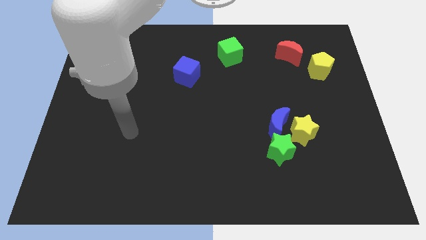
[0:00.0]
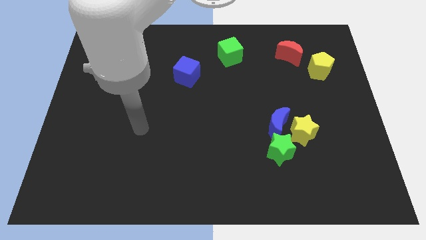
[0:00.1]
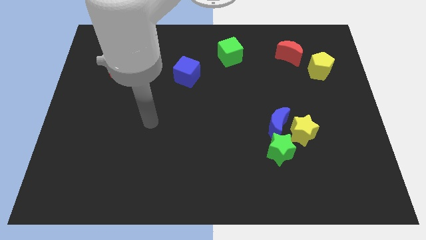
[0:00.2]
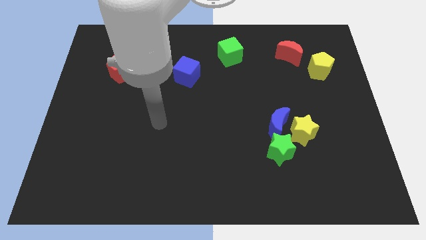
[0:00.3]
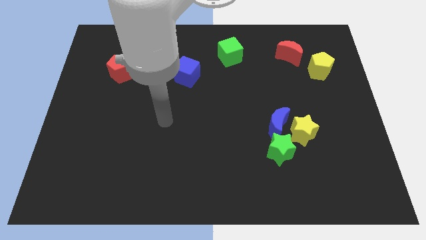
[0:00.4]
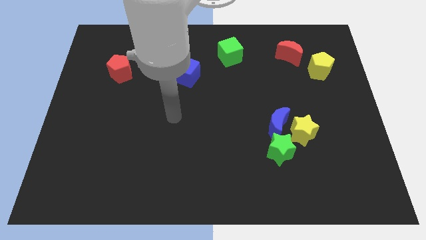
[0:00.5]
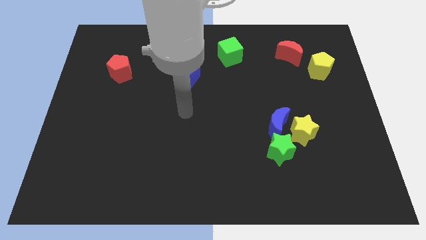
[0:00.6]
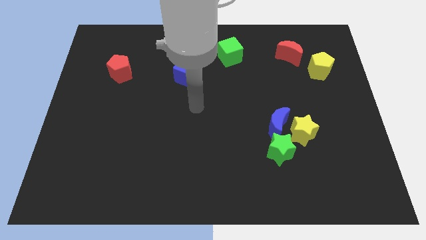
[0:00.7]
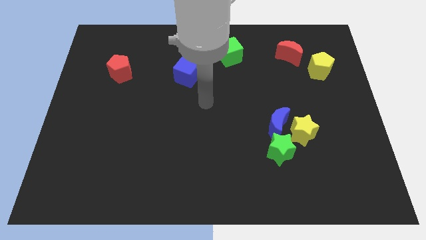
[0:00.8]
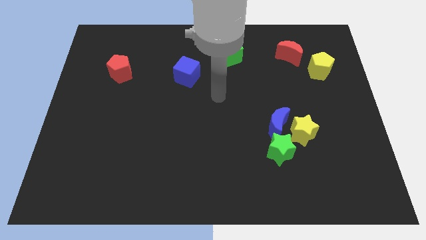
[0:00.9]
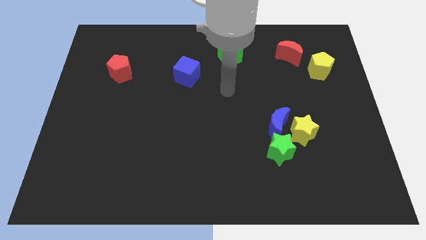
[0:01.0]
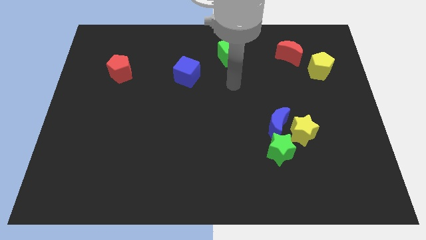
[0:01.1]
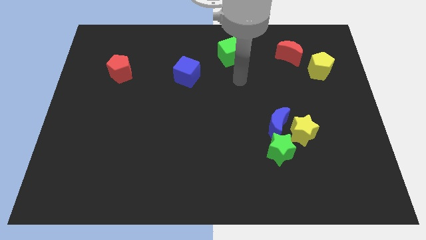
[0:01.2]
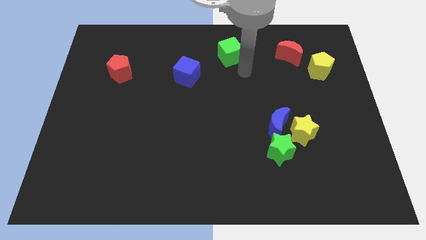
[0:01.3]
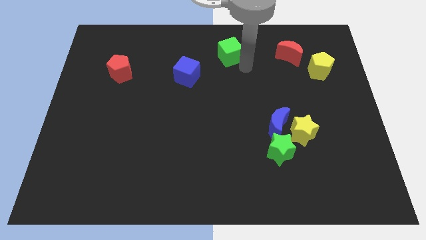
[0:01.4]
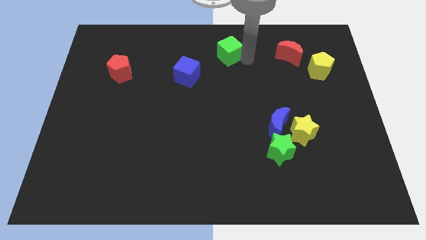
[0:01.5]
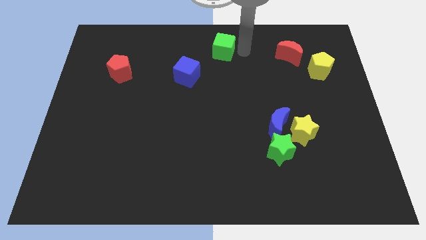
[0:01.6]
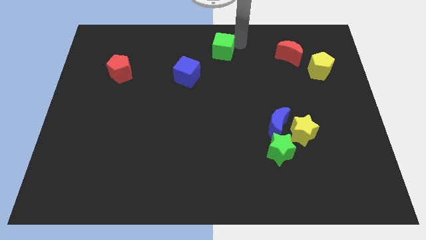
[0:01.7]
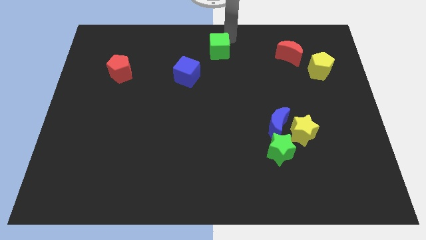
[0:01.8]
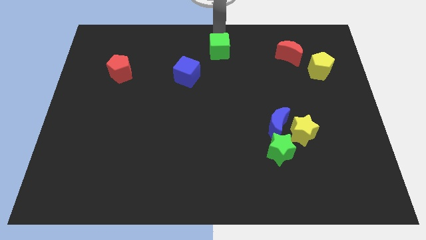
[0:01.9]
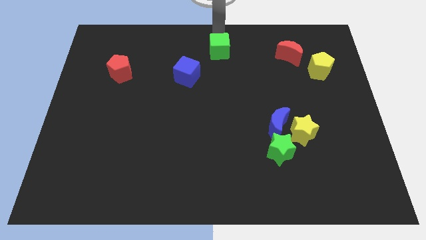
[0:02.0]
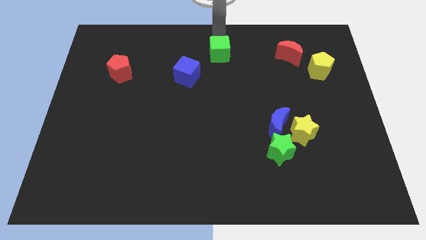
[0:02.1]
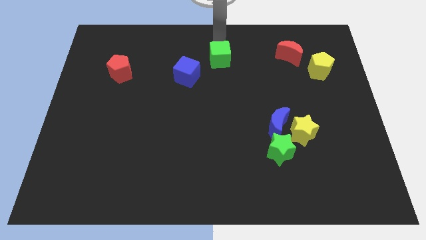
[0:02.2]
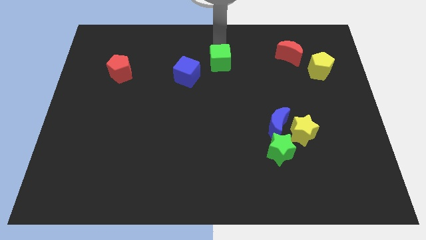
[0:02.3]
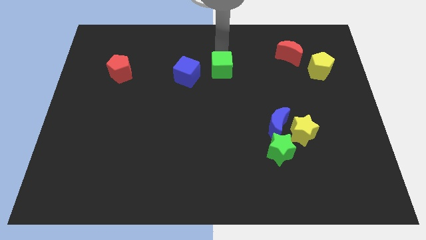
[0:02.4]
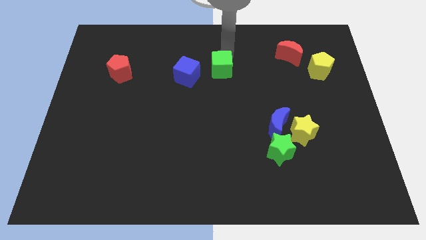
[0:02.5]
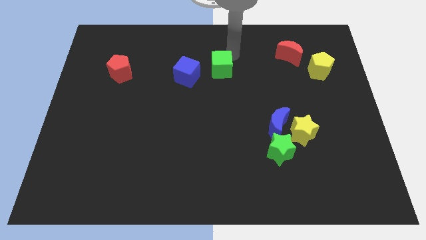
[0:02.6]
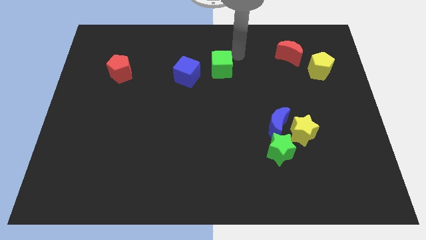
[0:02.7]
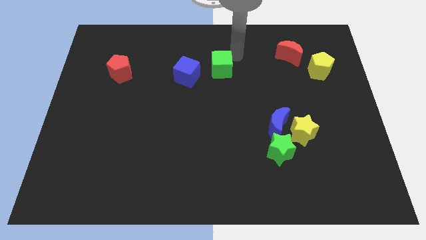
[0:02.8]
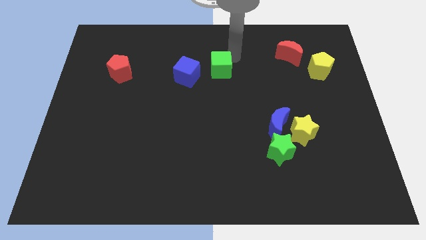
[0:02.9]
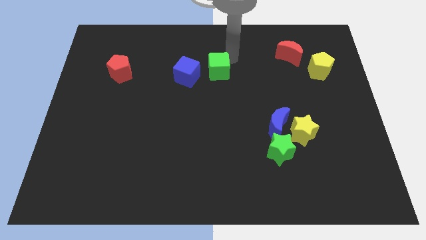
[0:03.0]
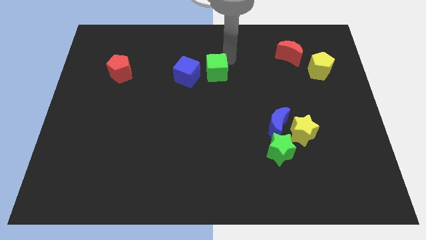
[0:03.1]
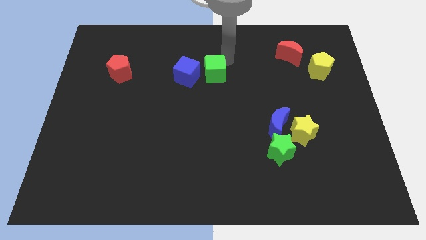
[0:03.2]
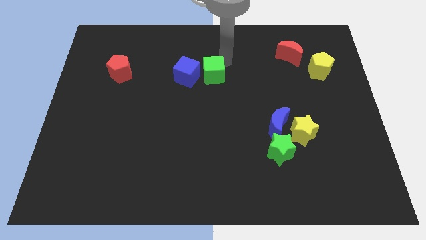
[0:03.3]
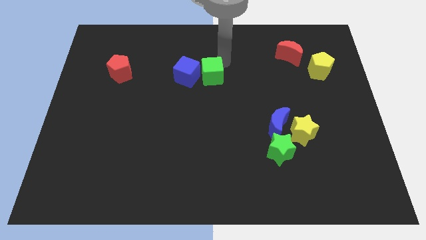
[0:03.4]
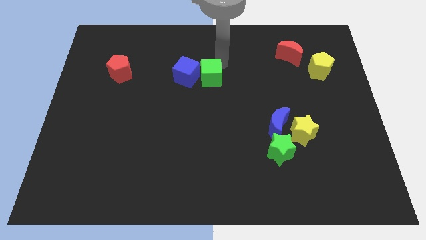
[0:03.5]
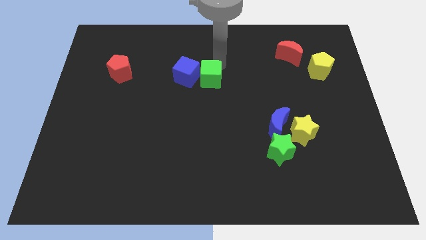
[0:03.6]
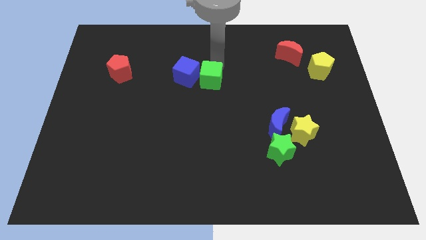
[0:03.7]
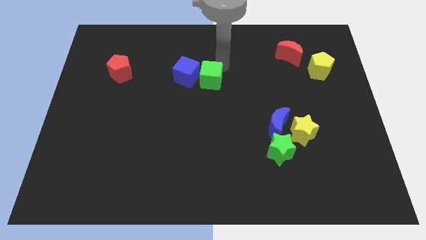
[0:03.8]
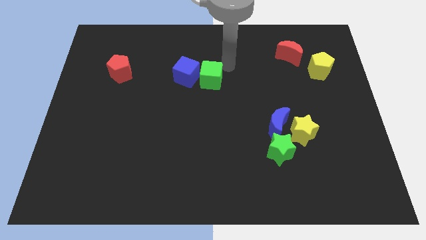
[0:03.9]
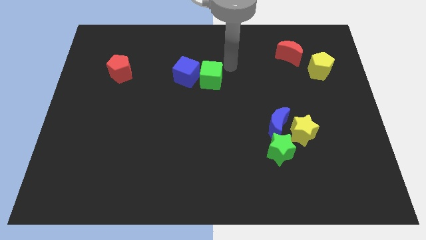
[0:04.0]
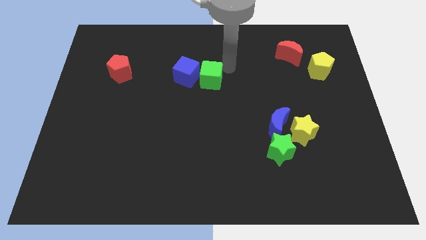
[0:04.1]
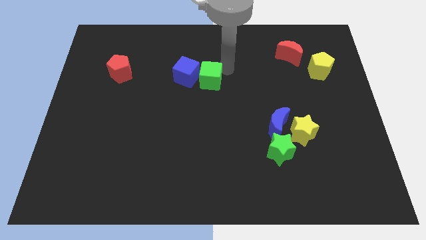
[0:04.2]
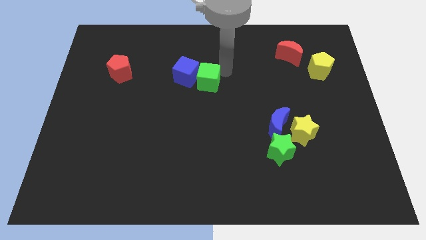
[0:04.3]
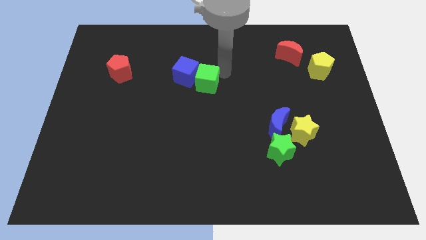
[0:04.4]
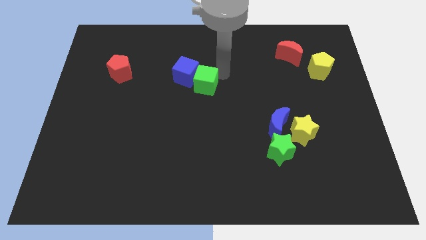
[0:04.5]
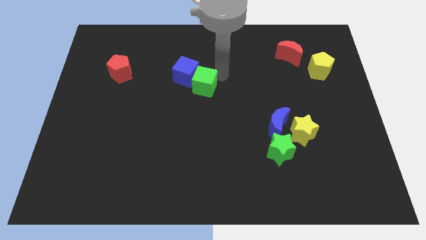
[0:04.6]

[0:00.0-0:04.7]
slide the green cube to the bottom of the blue cube

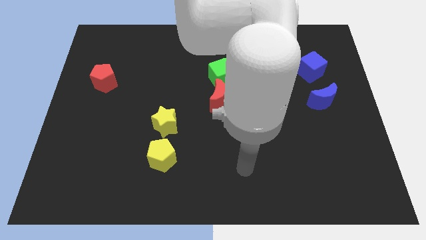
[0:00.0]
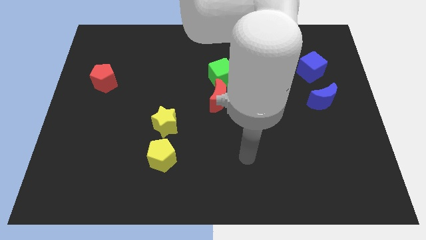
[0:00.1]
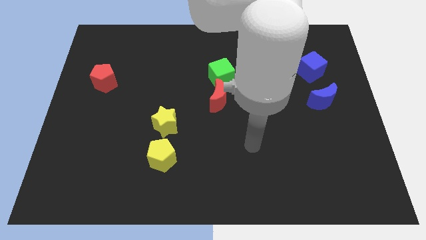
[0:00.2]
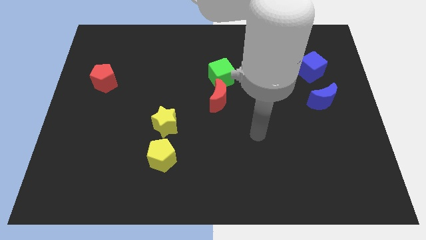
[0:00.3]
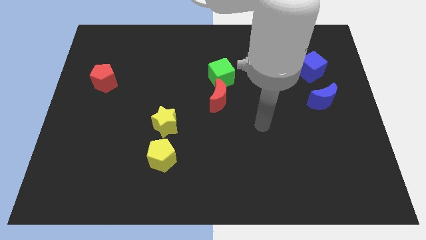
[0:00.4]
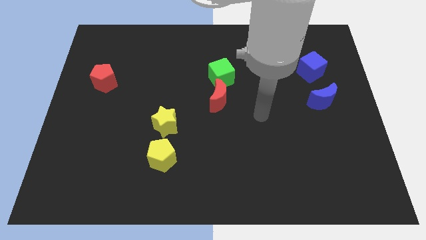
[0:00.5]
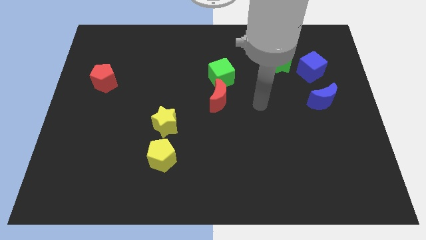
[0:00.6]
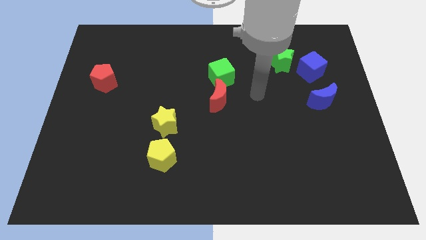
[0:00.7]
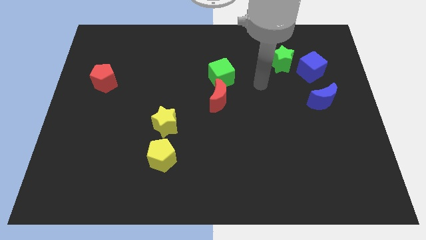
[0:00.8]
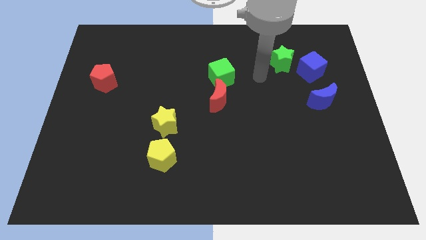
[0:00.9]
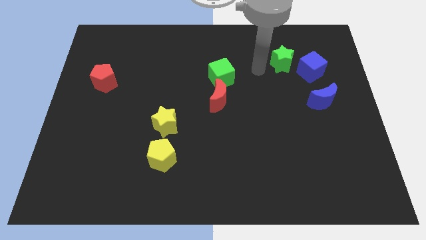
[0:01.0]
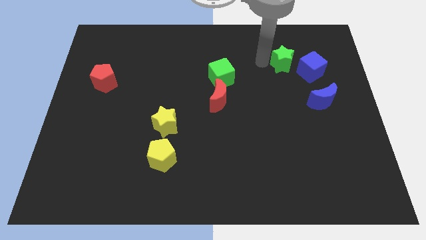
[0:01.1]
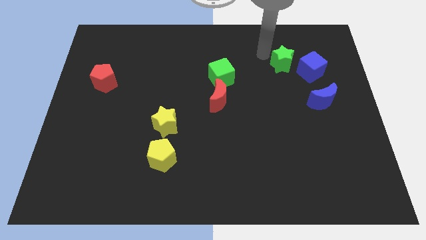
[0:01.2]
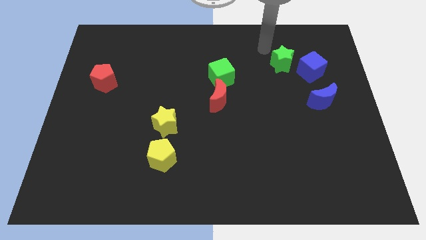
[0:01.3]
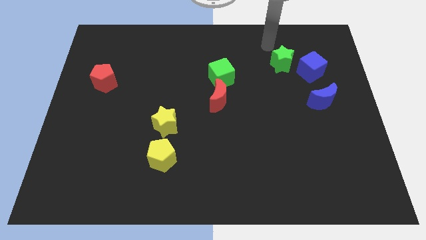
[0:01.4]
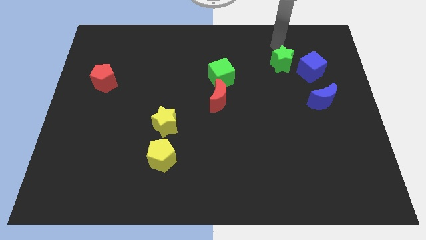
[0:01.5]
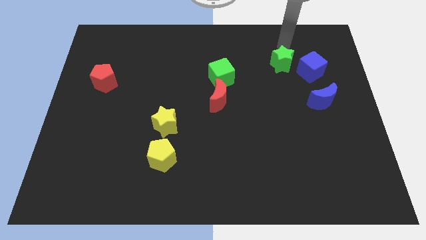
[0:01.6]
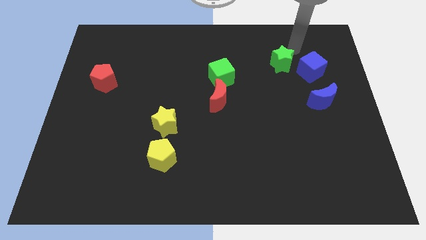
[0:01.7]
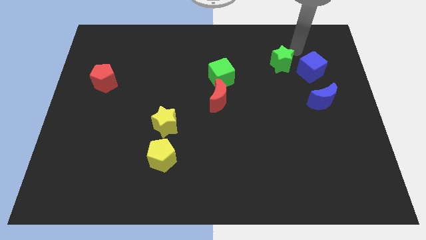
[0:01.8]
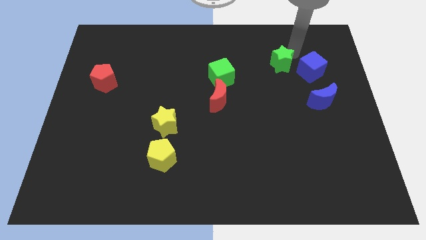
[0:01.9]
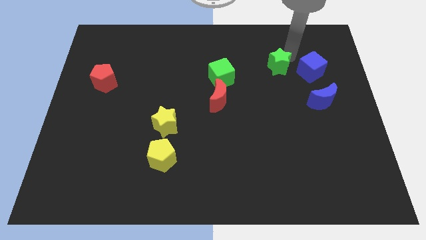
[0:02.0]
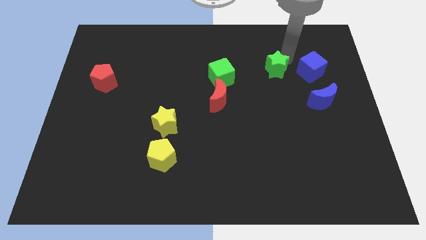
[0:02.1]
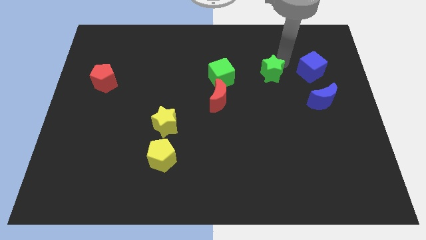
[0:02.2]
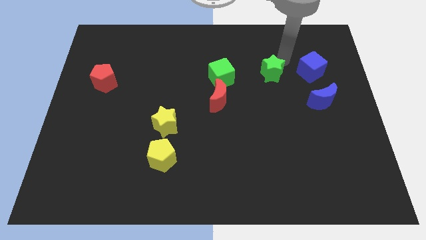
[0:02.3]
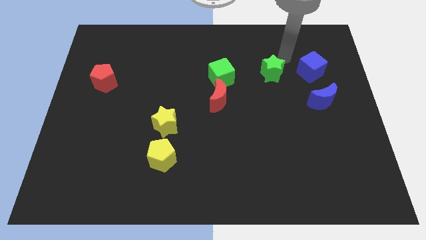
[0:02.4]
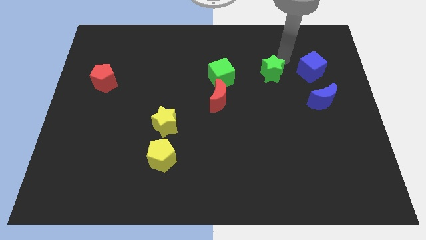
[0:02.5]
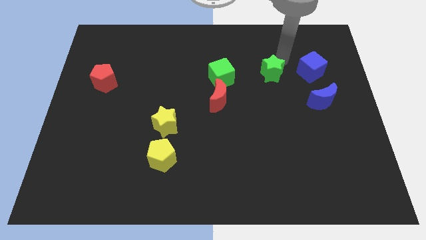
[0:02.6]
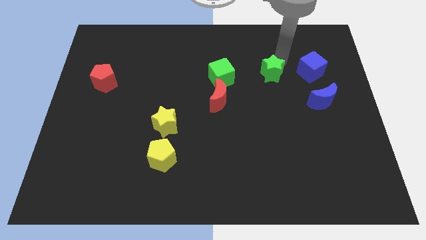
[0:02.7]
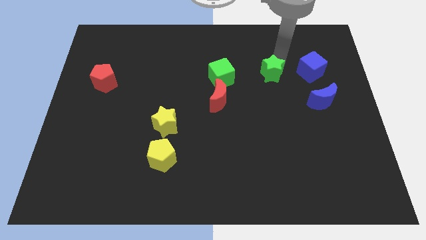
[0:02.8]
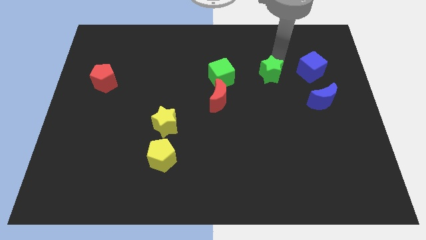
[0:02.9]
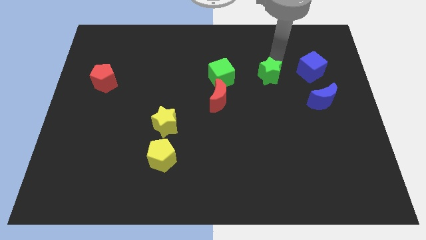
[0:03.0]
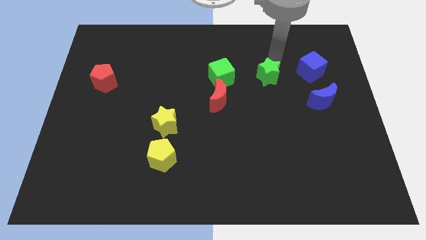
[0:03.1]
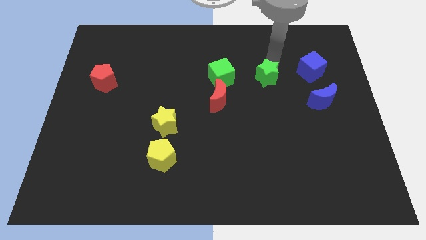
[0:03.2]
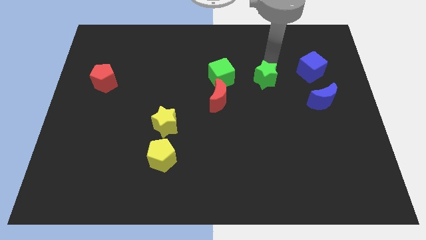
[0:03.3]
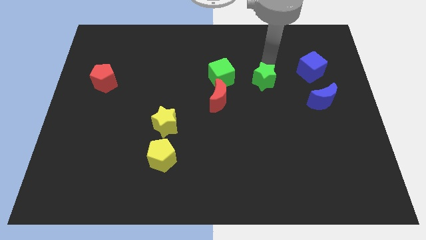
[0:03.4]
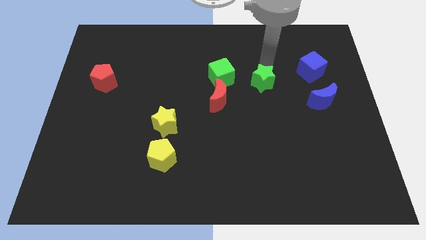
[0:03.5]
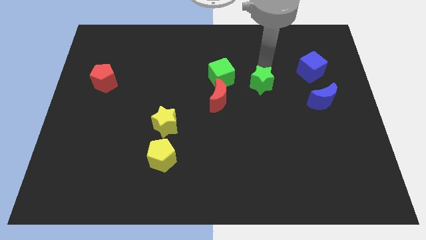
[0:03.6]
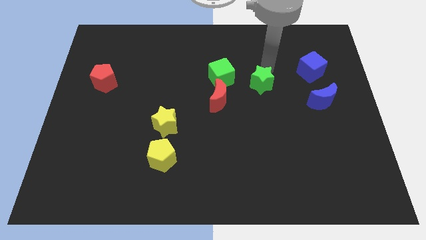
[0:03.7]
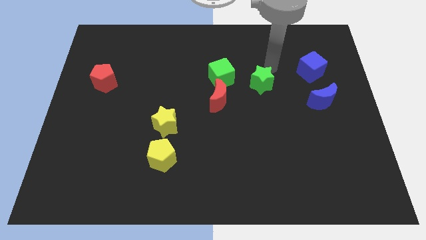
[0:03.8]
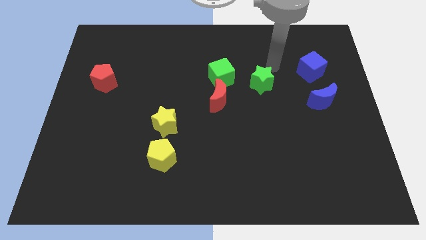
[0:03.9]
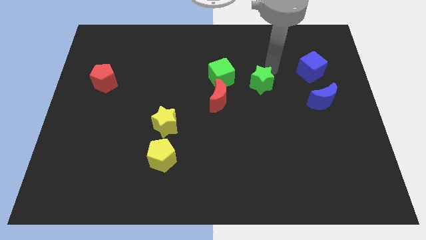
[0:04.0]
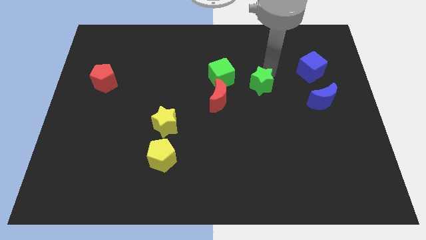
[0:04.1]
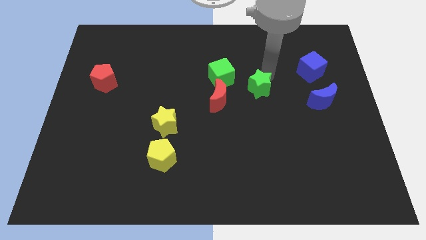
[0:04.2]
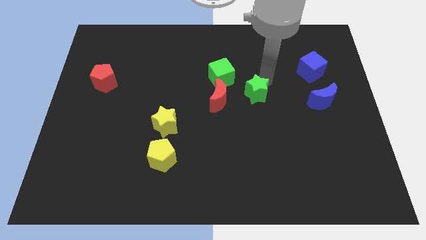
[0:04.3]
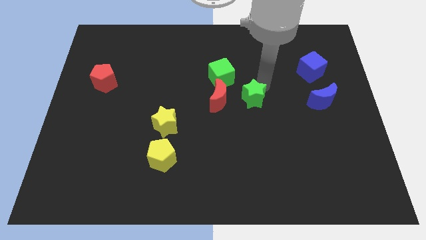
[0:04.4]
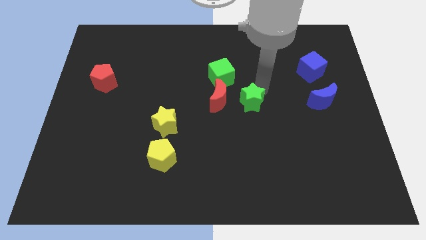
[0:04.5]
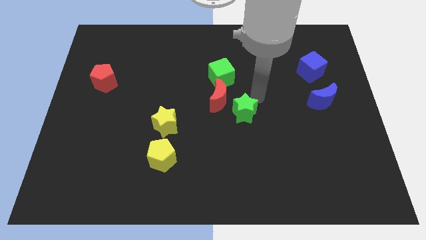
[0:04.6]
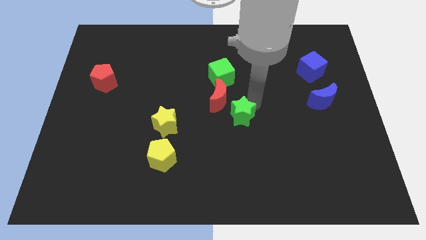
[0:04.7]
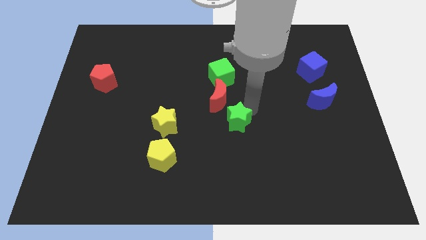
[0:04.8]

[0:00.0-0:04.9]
put the green star just right of the yellow star
